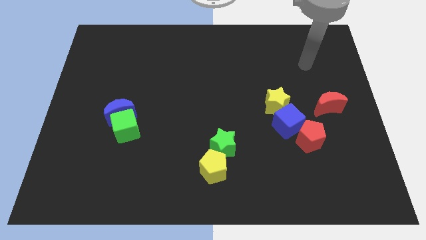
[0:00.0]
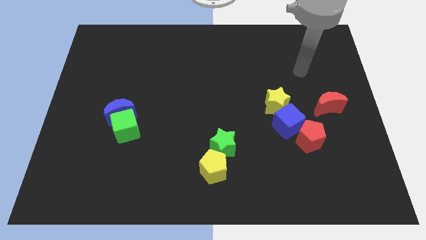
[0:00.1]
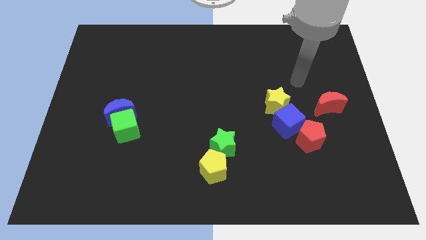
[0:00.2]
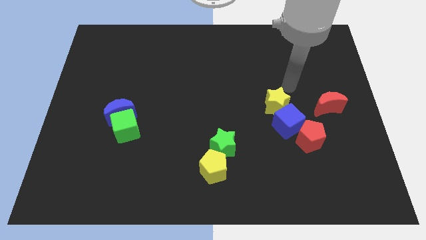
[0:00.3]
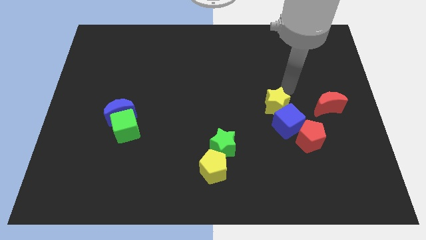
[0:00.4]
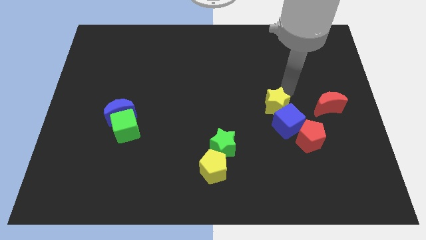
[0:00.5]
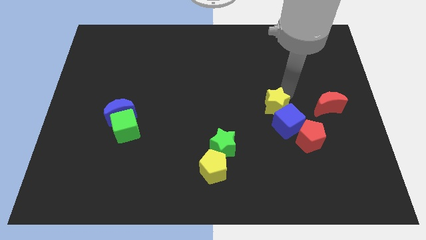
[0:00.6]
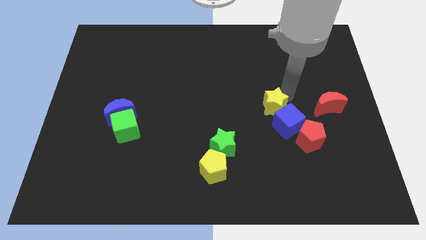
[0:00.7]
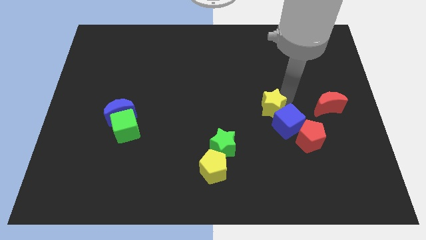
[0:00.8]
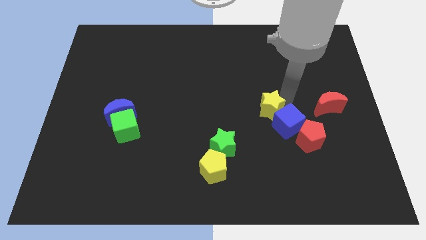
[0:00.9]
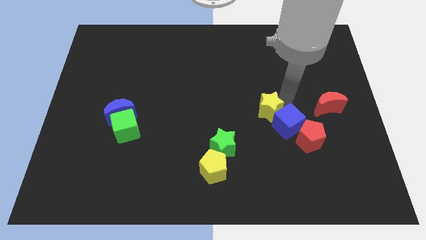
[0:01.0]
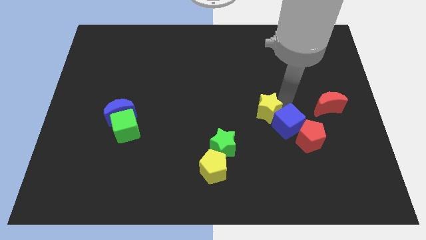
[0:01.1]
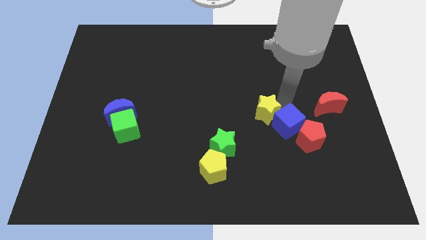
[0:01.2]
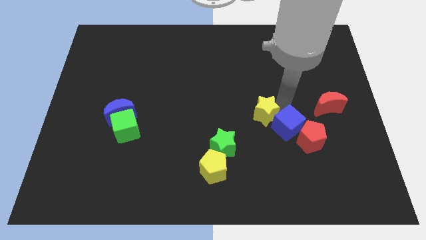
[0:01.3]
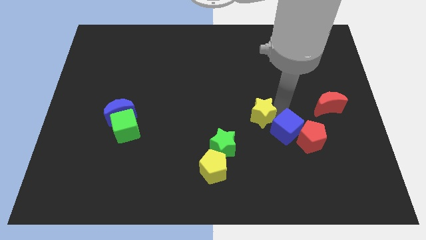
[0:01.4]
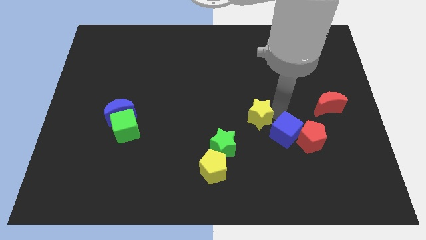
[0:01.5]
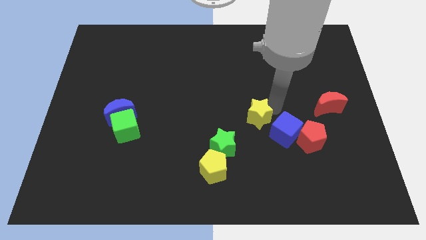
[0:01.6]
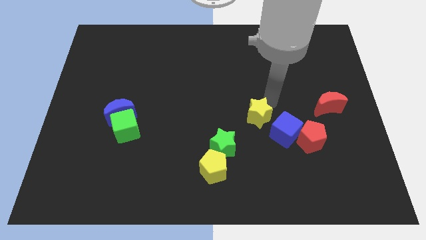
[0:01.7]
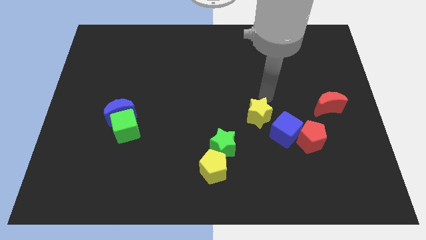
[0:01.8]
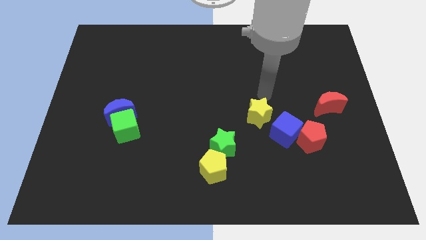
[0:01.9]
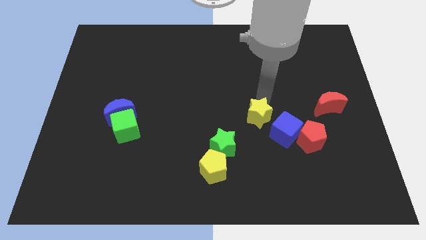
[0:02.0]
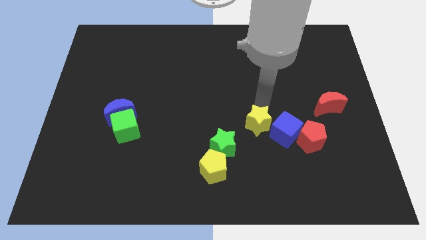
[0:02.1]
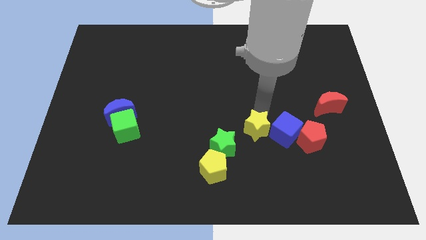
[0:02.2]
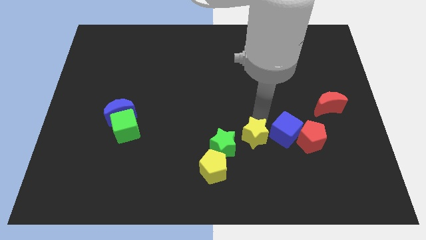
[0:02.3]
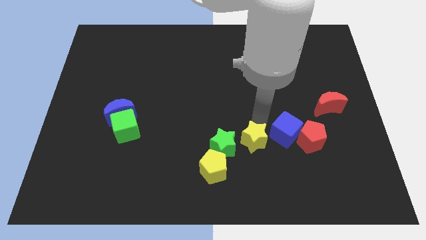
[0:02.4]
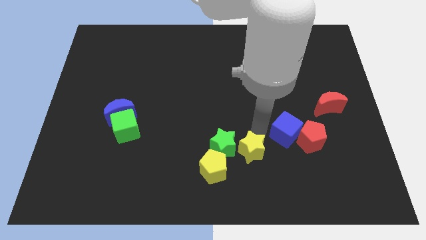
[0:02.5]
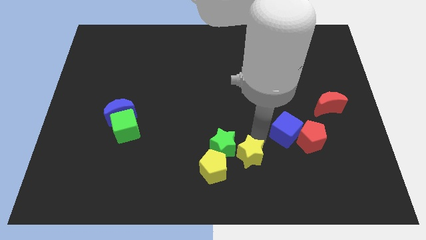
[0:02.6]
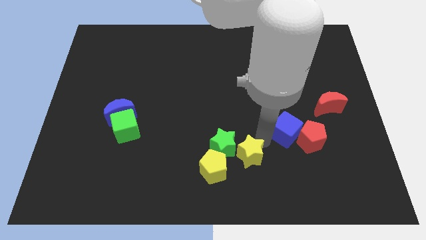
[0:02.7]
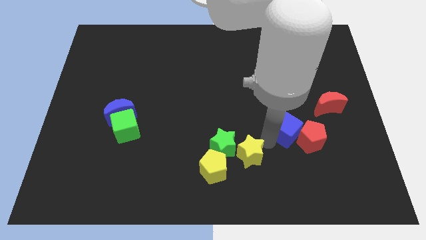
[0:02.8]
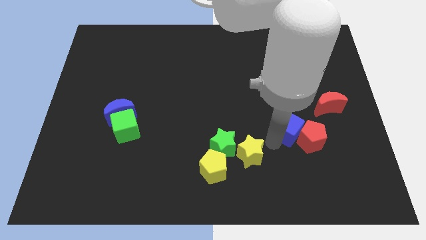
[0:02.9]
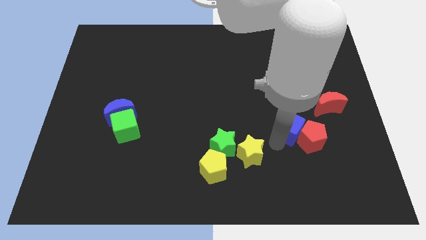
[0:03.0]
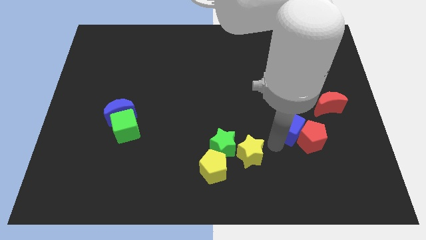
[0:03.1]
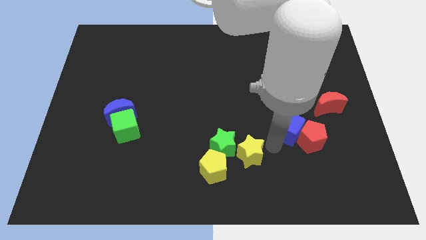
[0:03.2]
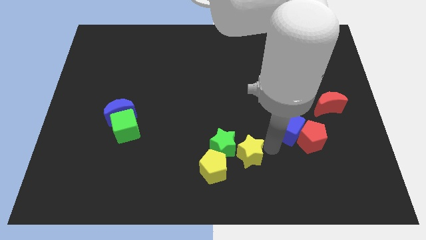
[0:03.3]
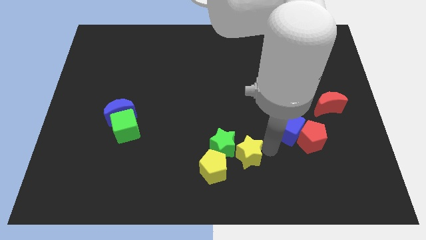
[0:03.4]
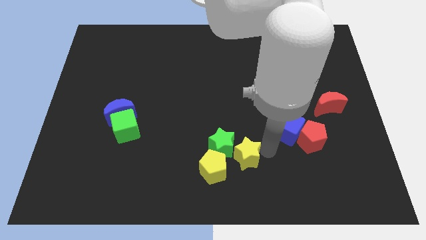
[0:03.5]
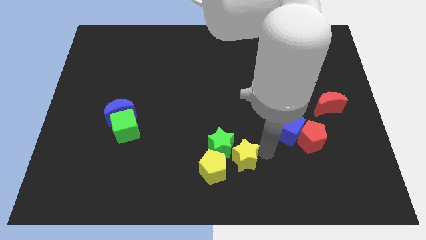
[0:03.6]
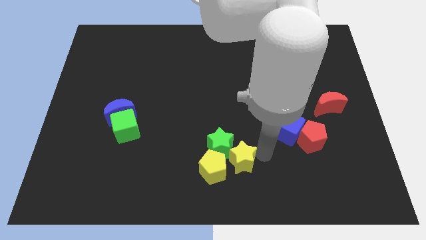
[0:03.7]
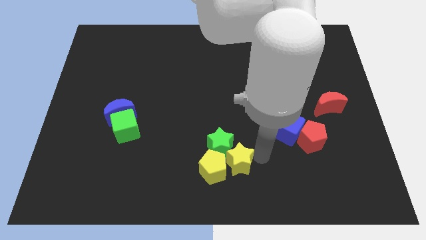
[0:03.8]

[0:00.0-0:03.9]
push the yellow star close to the yellow pentagon

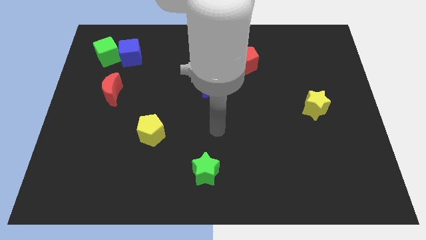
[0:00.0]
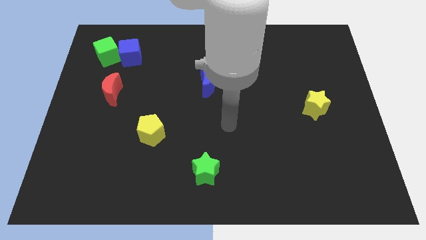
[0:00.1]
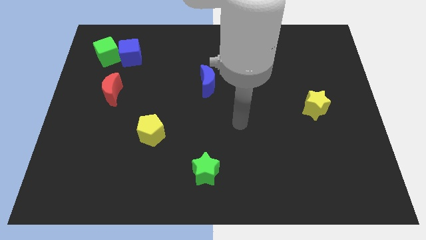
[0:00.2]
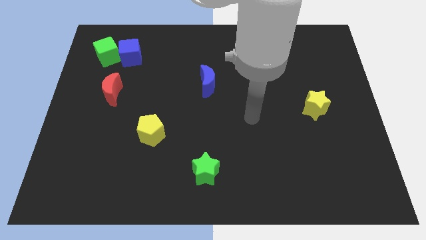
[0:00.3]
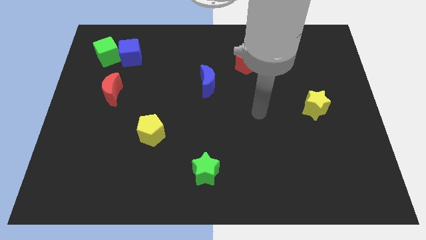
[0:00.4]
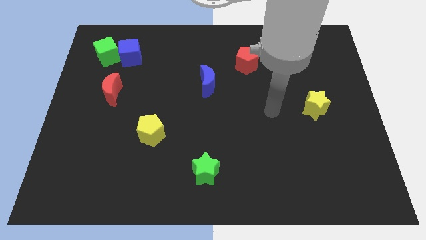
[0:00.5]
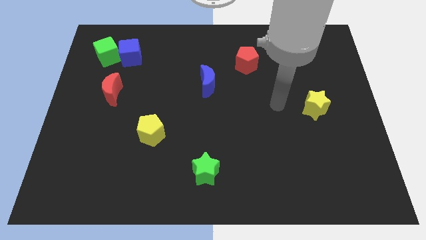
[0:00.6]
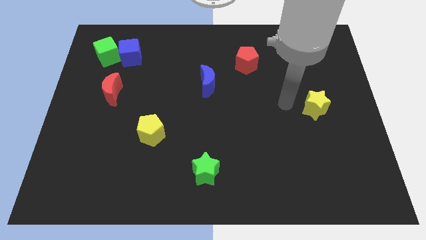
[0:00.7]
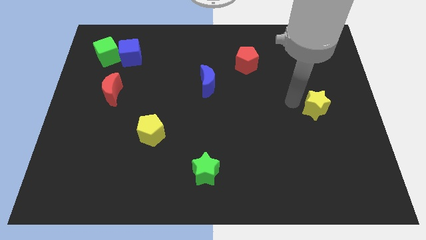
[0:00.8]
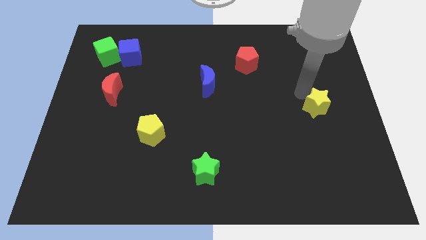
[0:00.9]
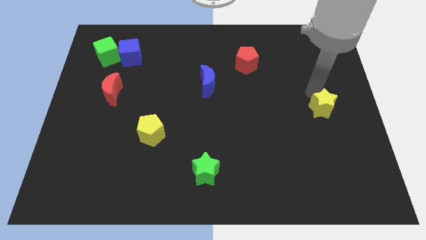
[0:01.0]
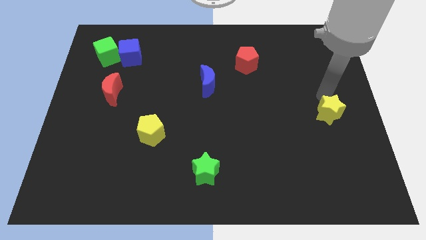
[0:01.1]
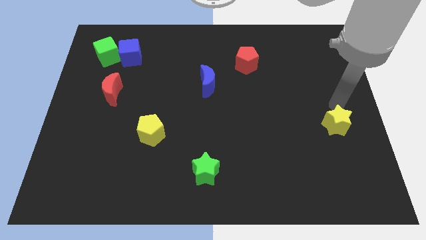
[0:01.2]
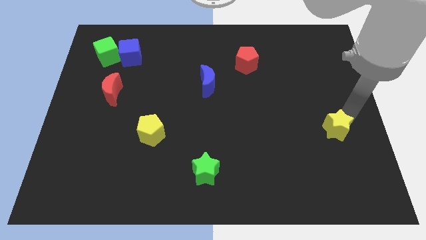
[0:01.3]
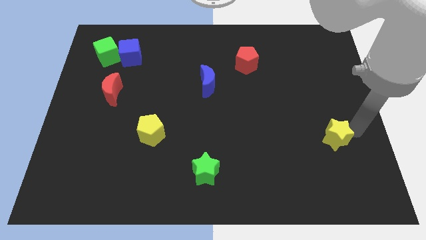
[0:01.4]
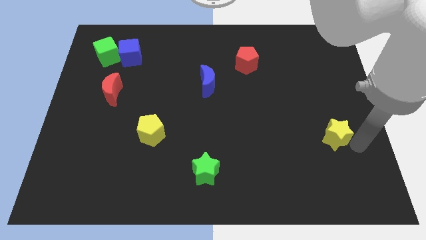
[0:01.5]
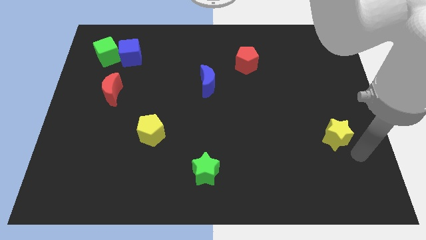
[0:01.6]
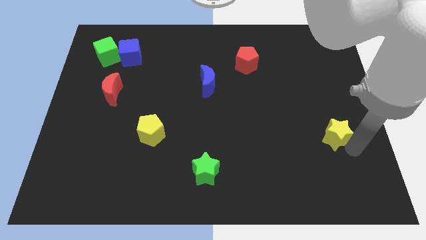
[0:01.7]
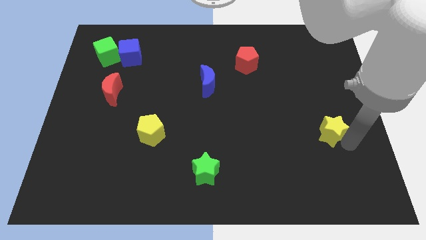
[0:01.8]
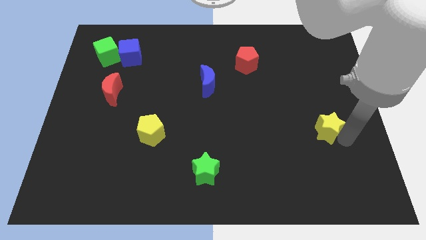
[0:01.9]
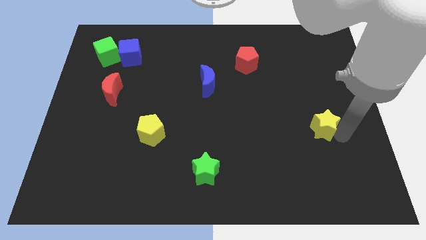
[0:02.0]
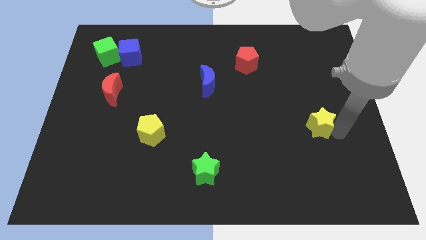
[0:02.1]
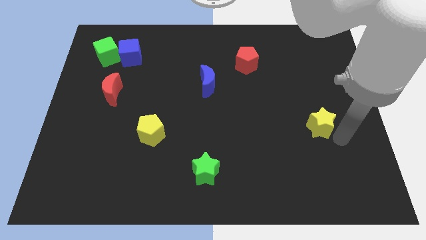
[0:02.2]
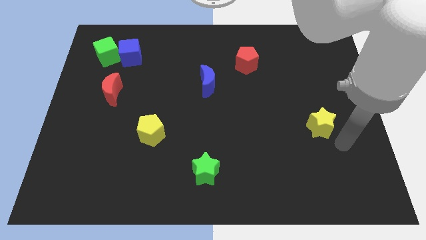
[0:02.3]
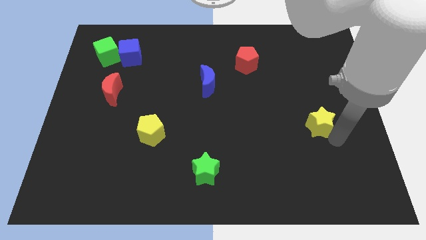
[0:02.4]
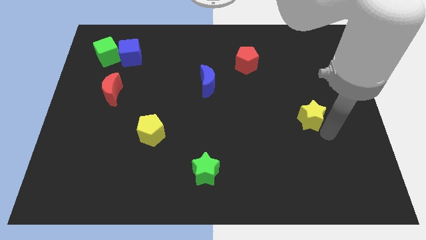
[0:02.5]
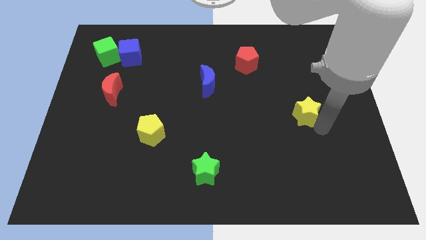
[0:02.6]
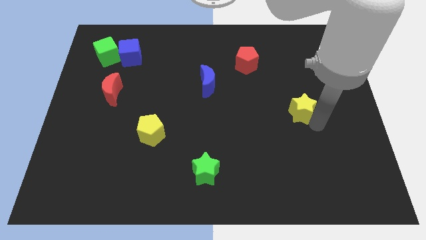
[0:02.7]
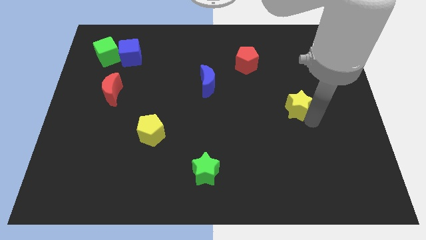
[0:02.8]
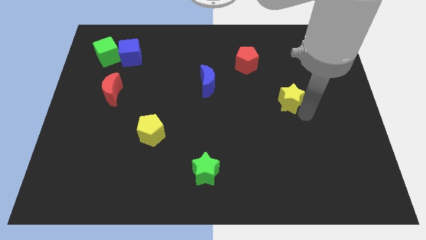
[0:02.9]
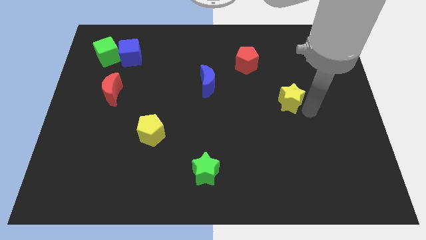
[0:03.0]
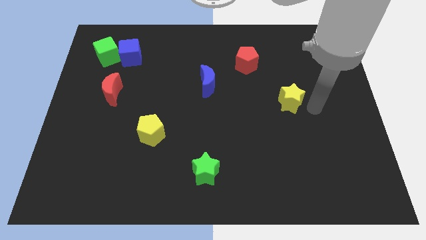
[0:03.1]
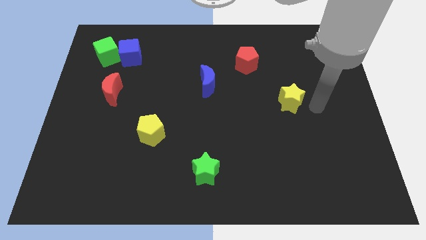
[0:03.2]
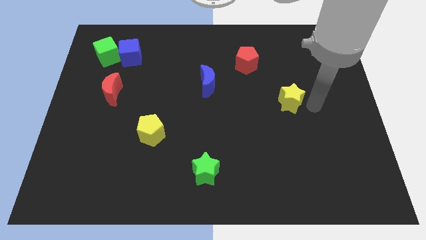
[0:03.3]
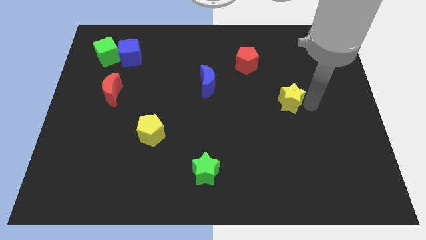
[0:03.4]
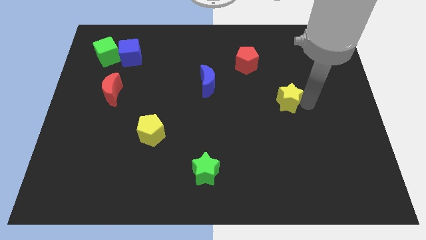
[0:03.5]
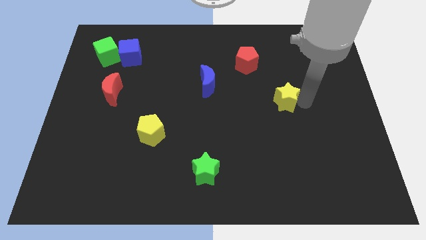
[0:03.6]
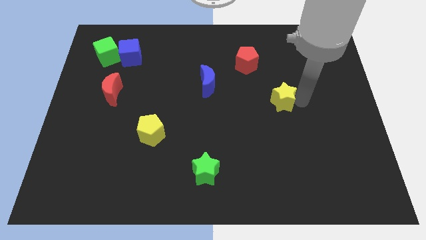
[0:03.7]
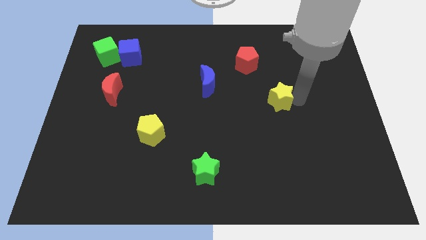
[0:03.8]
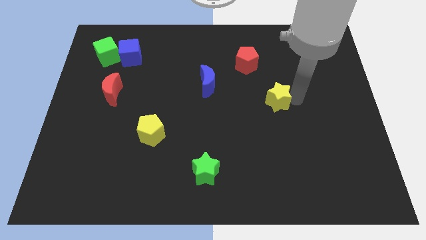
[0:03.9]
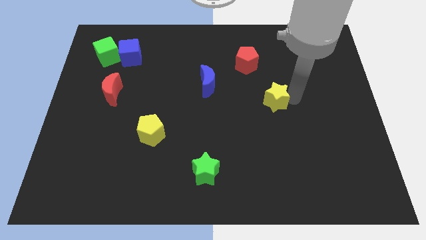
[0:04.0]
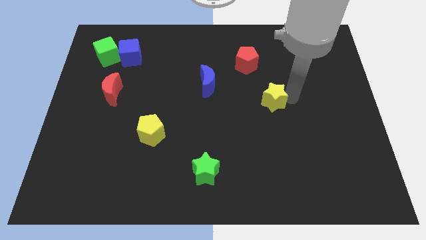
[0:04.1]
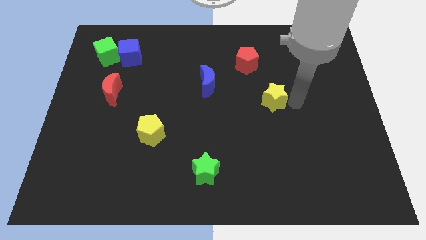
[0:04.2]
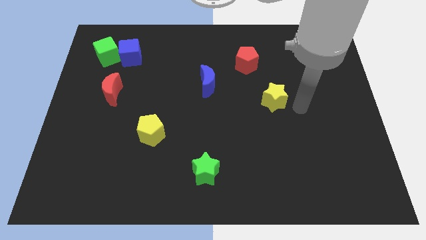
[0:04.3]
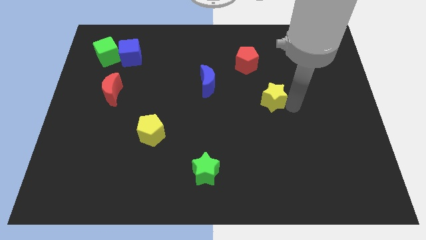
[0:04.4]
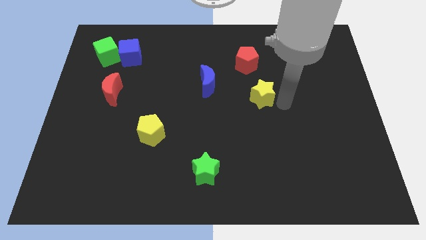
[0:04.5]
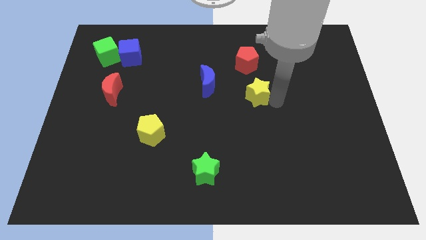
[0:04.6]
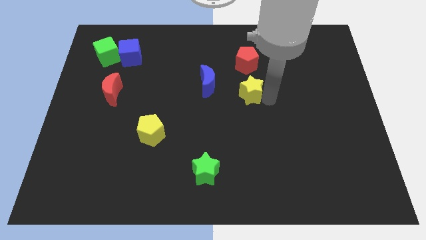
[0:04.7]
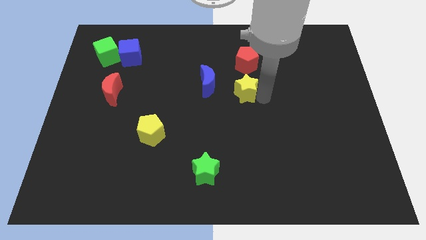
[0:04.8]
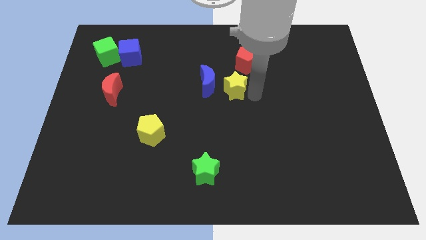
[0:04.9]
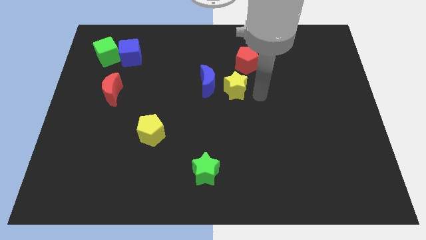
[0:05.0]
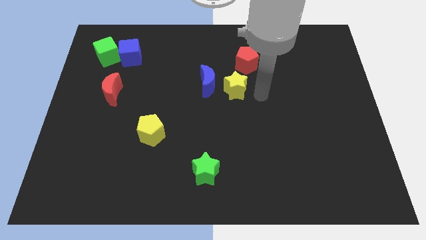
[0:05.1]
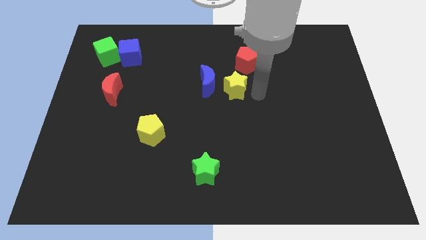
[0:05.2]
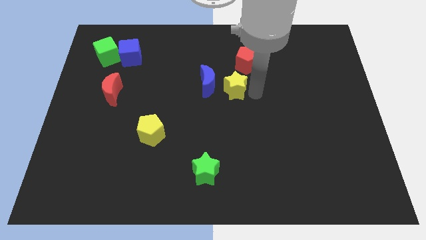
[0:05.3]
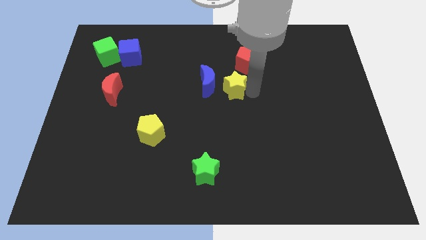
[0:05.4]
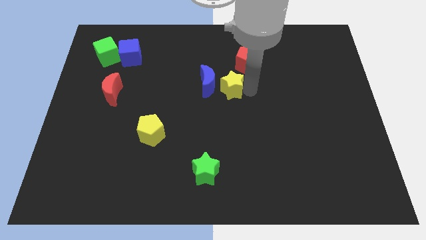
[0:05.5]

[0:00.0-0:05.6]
slide the yellow star towards the blue moon
